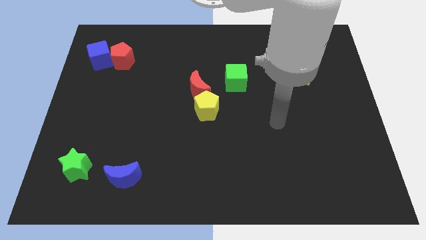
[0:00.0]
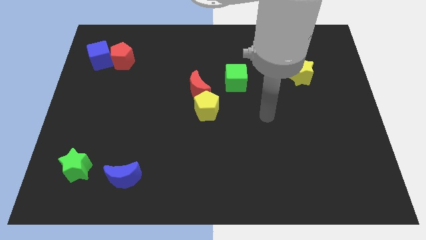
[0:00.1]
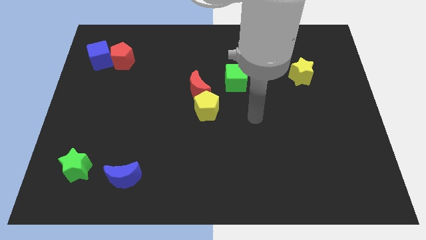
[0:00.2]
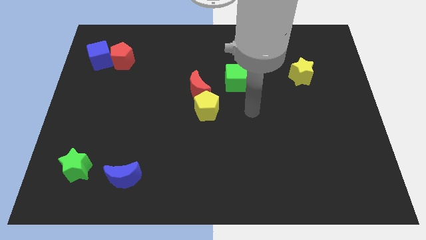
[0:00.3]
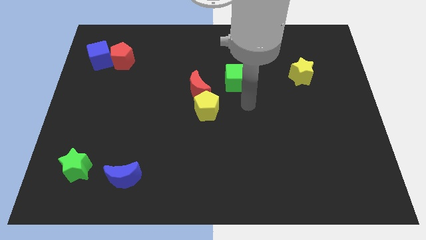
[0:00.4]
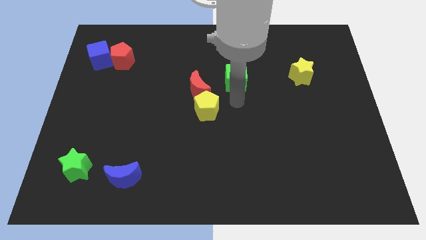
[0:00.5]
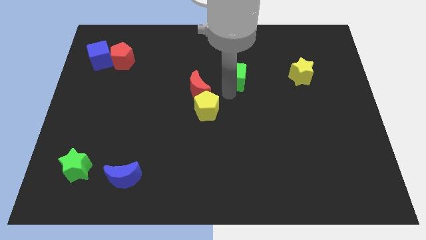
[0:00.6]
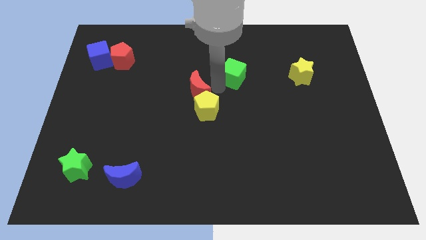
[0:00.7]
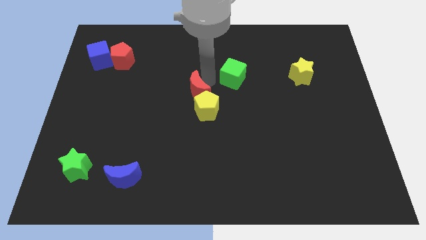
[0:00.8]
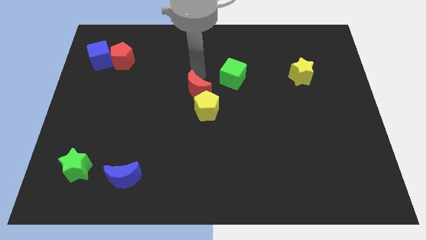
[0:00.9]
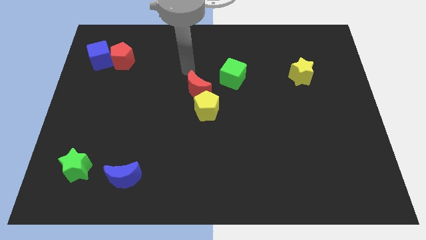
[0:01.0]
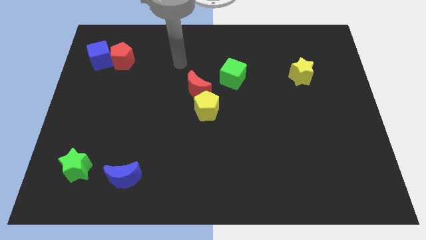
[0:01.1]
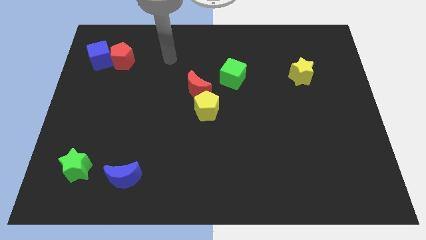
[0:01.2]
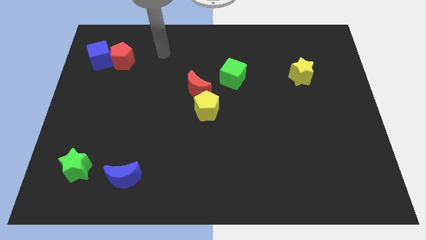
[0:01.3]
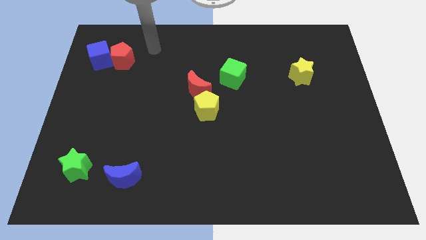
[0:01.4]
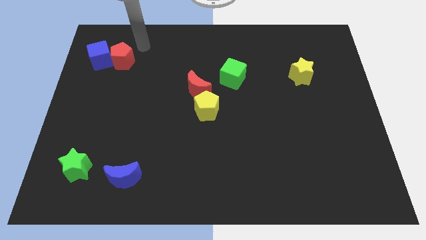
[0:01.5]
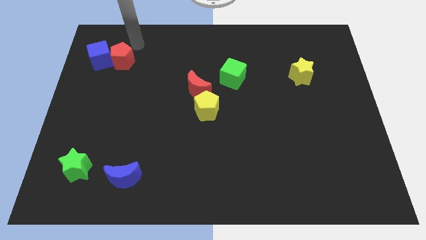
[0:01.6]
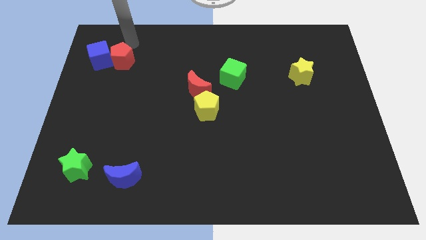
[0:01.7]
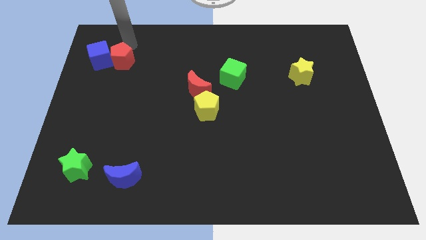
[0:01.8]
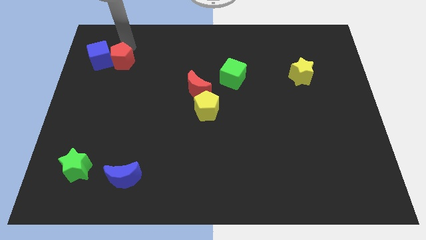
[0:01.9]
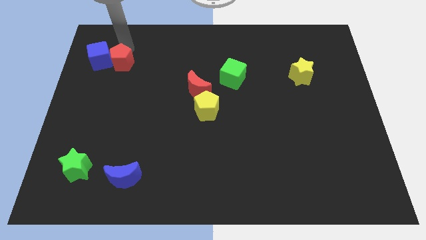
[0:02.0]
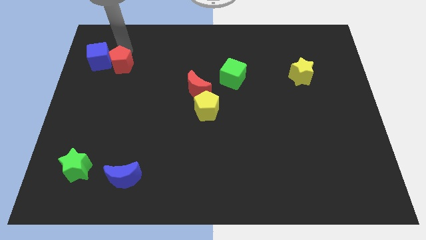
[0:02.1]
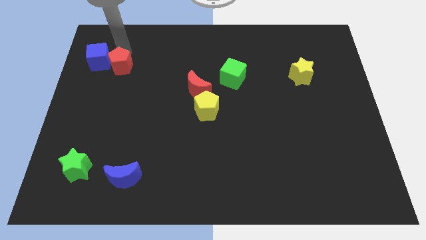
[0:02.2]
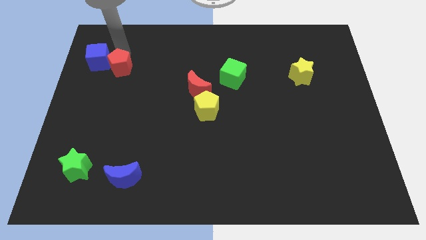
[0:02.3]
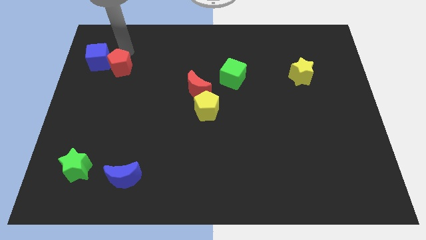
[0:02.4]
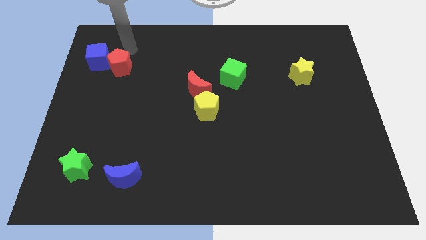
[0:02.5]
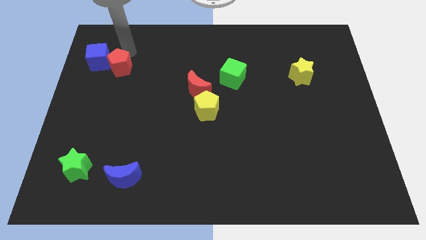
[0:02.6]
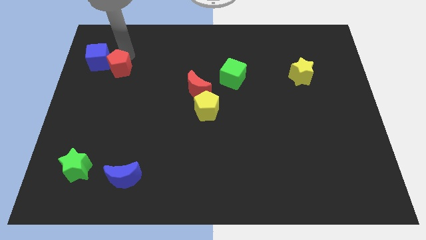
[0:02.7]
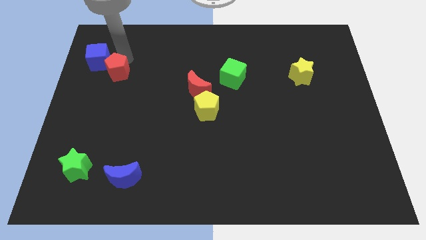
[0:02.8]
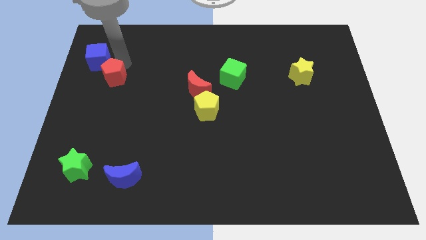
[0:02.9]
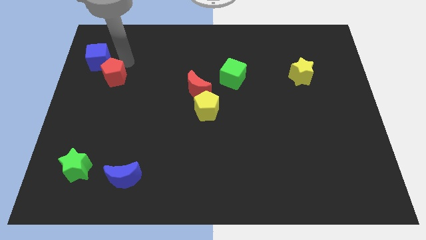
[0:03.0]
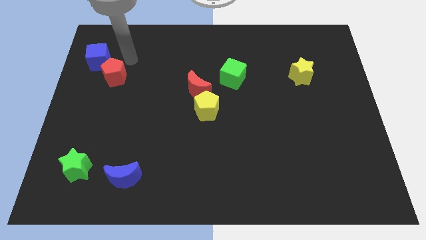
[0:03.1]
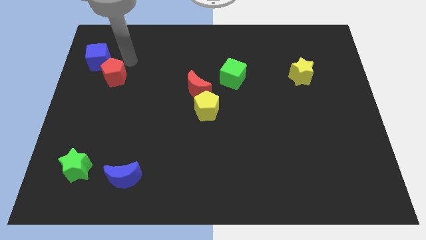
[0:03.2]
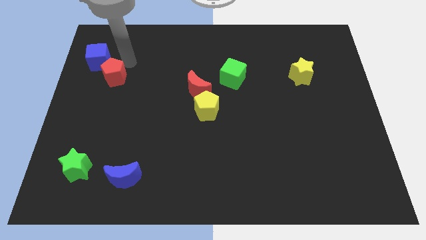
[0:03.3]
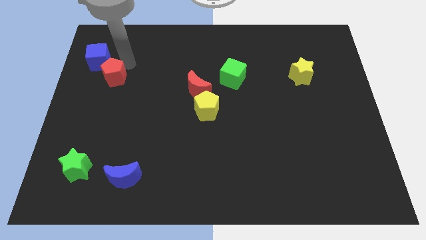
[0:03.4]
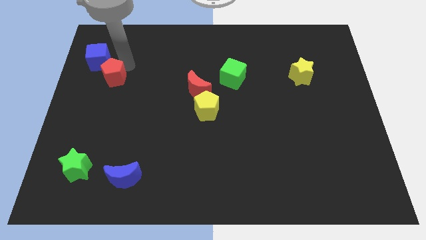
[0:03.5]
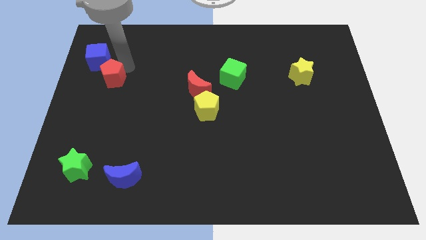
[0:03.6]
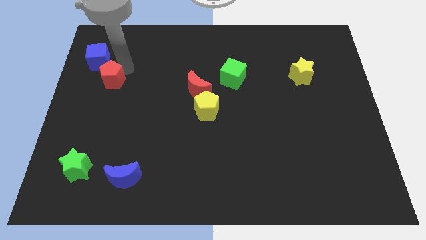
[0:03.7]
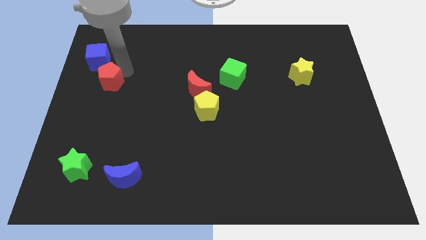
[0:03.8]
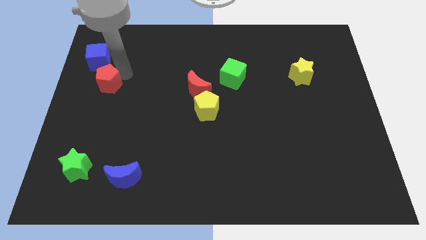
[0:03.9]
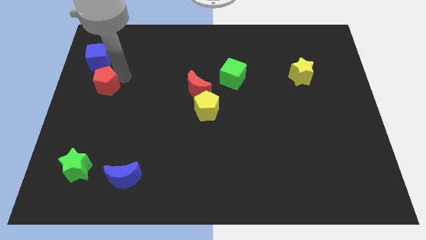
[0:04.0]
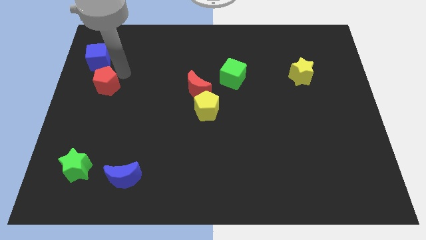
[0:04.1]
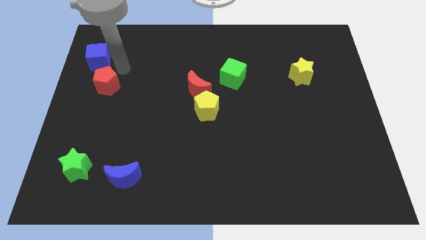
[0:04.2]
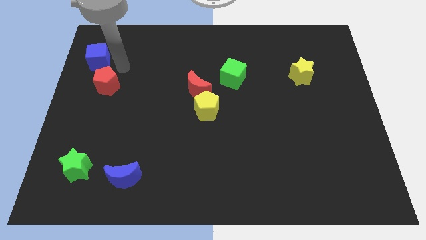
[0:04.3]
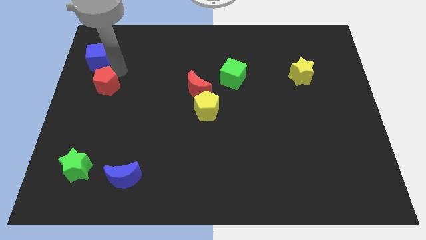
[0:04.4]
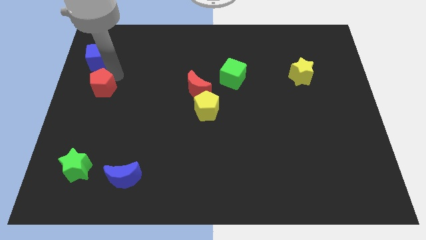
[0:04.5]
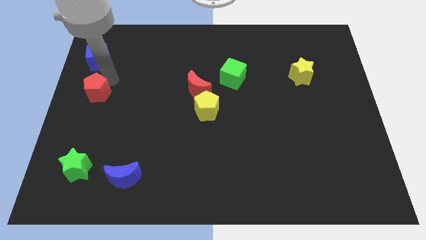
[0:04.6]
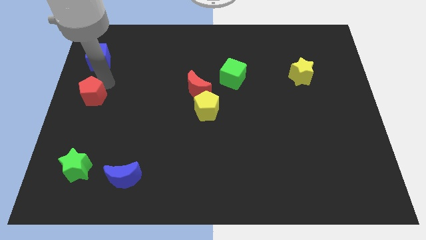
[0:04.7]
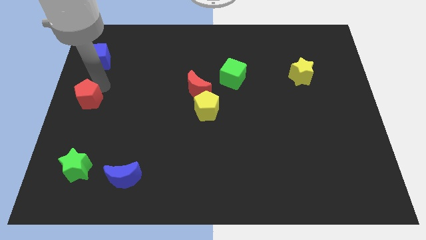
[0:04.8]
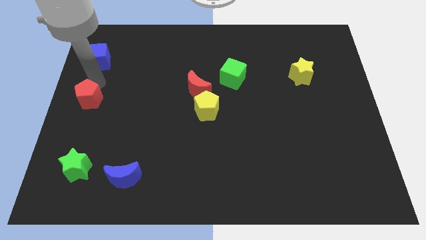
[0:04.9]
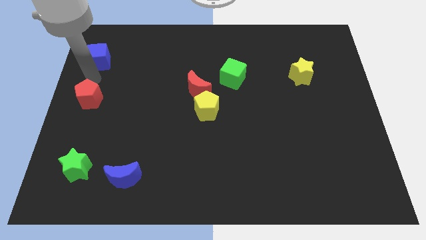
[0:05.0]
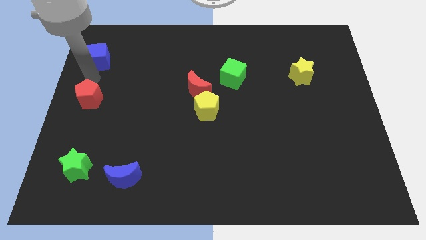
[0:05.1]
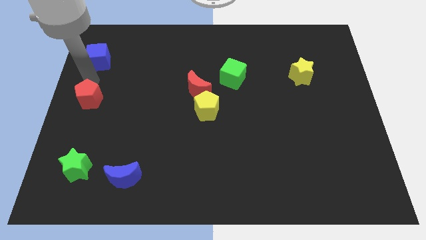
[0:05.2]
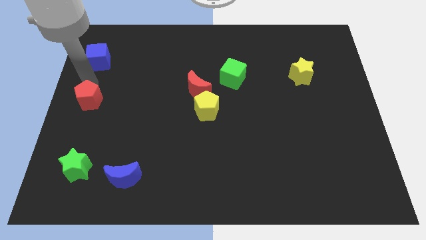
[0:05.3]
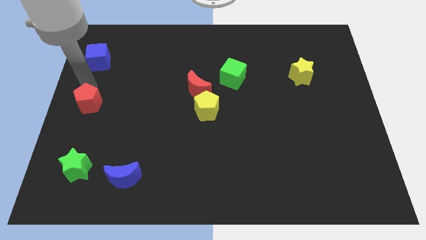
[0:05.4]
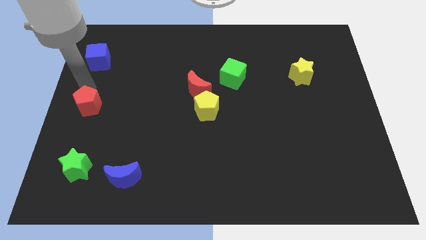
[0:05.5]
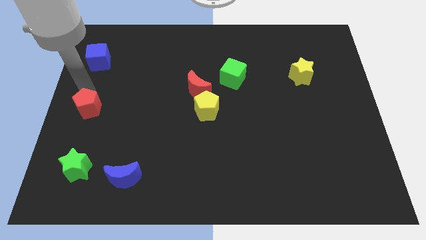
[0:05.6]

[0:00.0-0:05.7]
push the red pentagon to the top side of the green star
